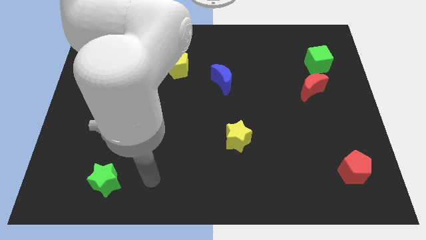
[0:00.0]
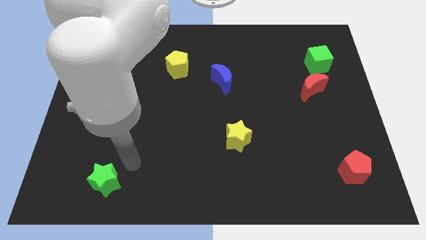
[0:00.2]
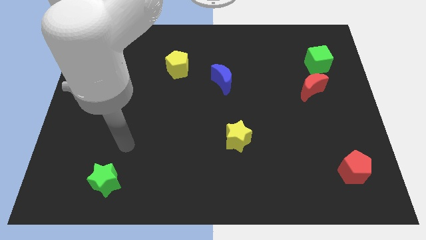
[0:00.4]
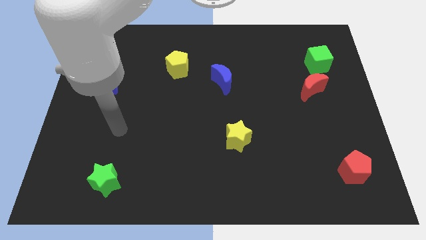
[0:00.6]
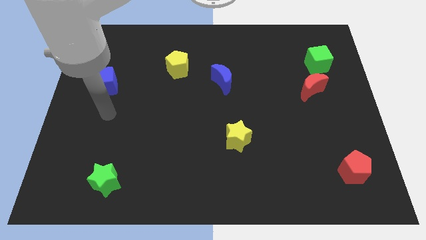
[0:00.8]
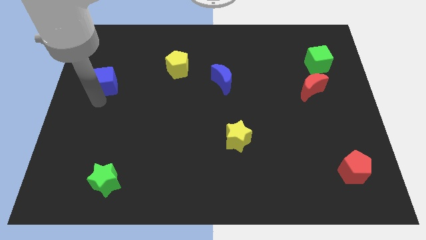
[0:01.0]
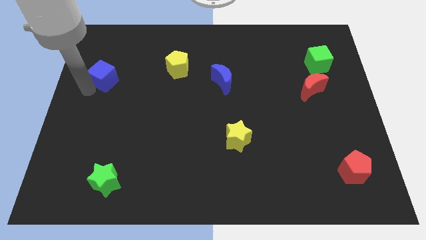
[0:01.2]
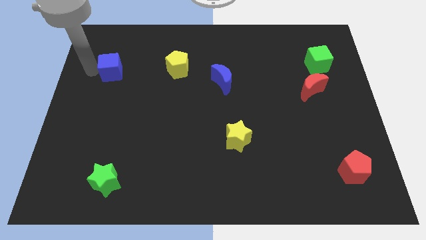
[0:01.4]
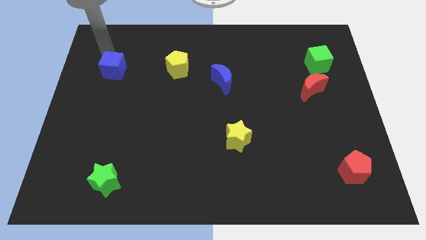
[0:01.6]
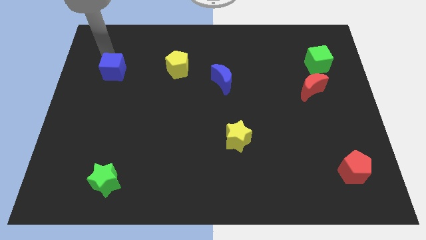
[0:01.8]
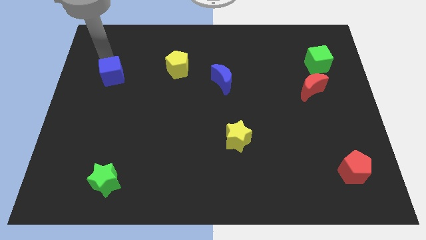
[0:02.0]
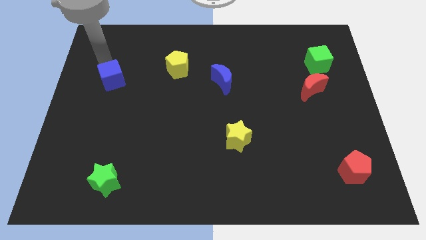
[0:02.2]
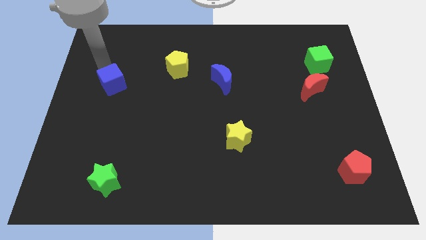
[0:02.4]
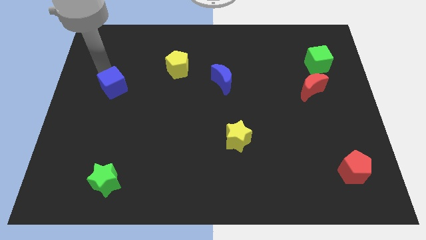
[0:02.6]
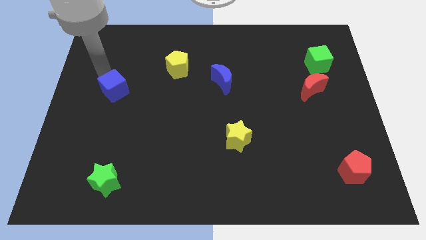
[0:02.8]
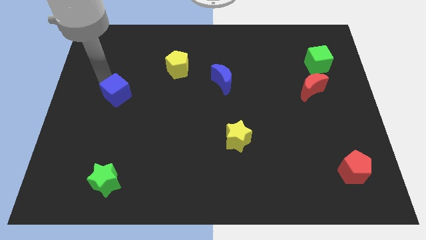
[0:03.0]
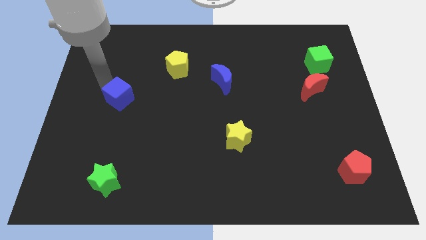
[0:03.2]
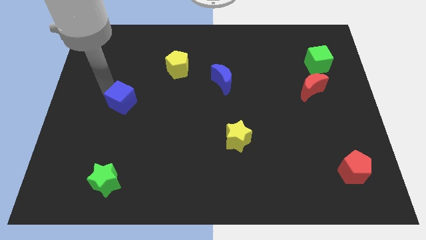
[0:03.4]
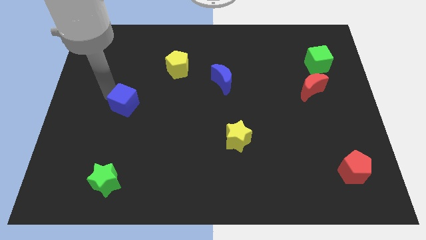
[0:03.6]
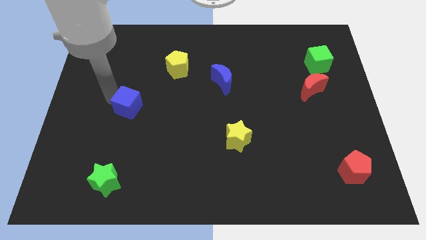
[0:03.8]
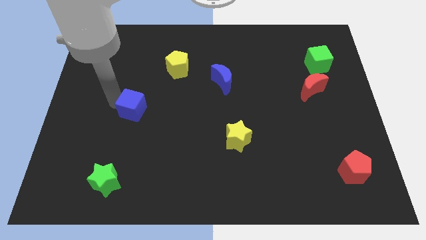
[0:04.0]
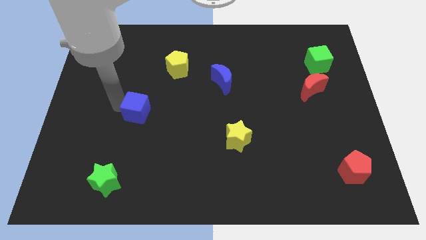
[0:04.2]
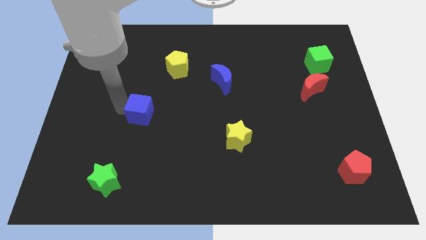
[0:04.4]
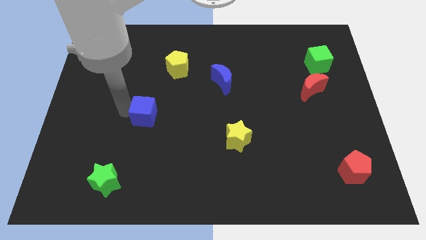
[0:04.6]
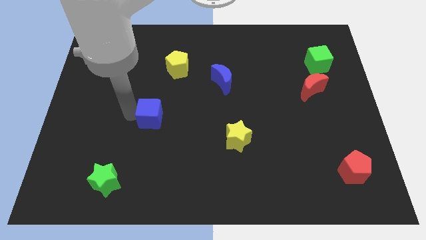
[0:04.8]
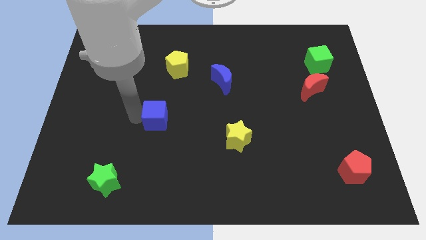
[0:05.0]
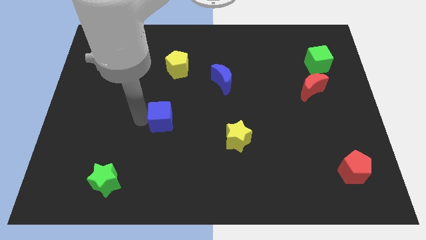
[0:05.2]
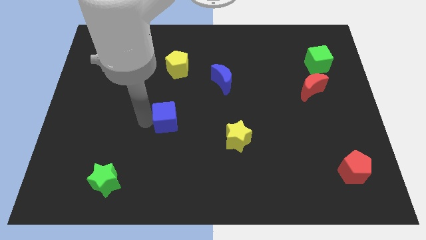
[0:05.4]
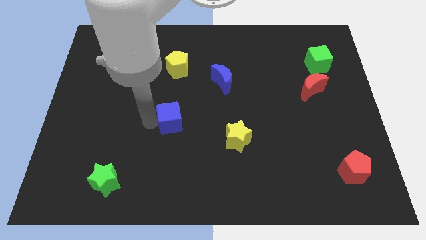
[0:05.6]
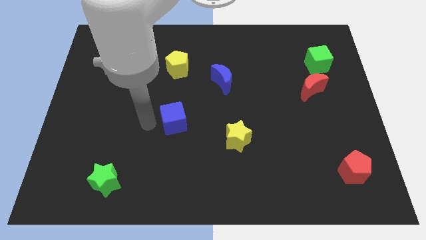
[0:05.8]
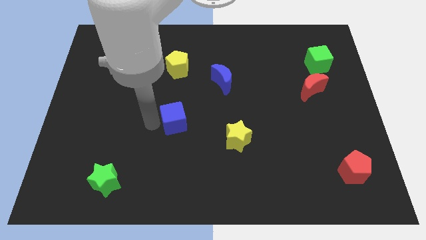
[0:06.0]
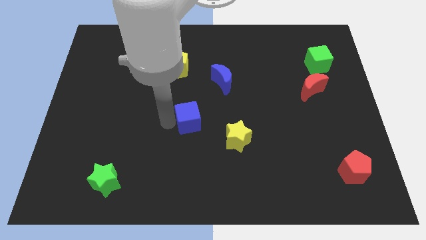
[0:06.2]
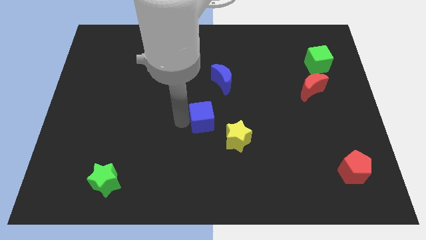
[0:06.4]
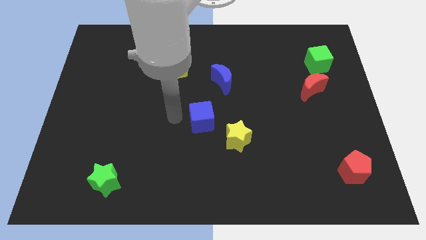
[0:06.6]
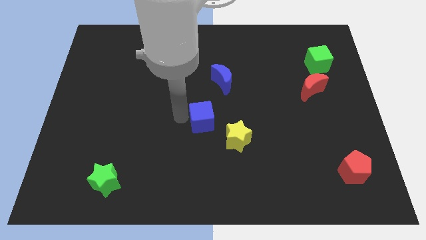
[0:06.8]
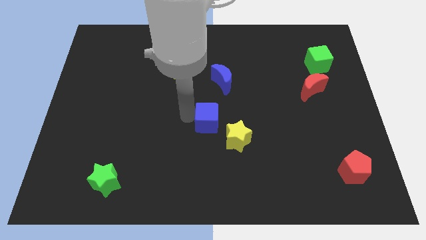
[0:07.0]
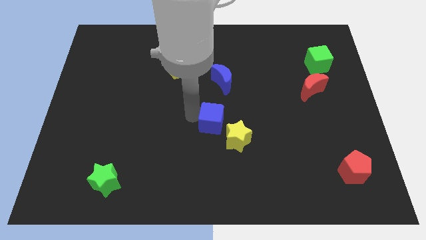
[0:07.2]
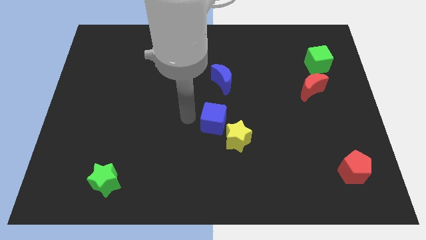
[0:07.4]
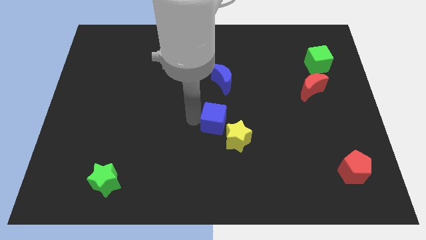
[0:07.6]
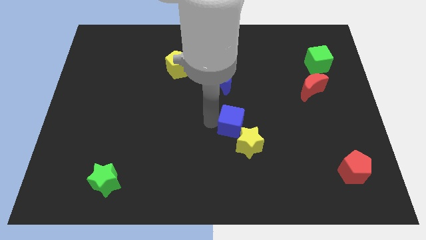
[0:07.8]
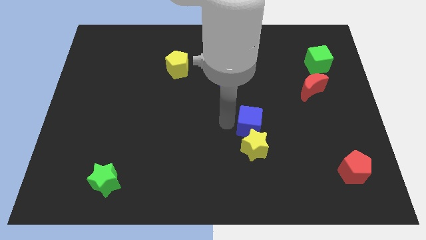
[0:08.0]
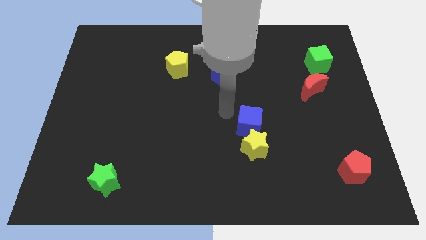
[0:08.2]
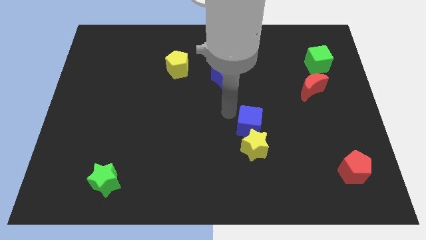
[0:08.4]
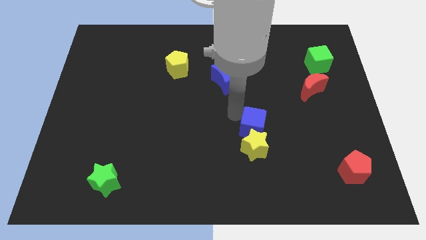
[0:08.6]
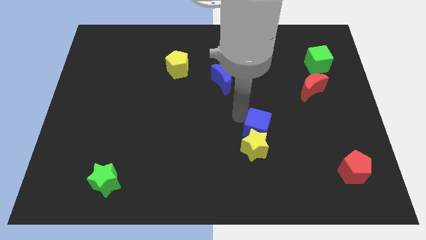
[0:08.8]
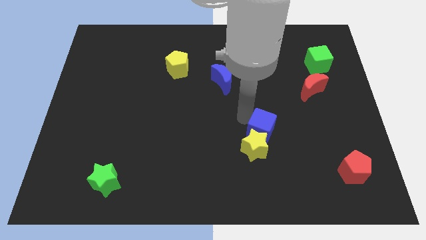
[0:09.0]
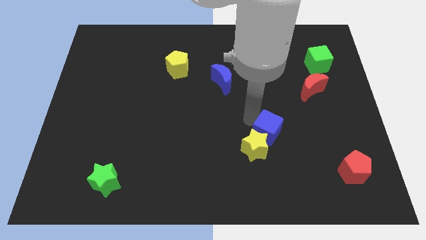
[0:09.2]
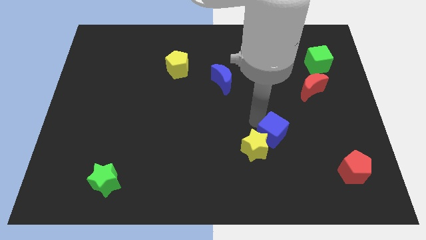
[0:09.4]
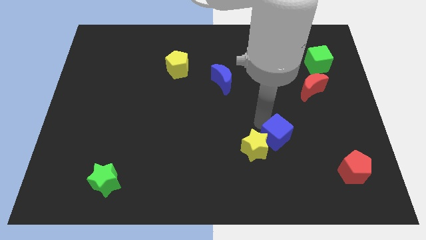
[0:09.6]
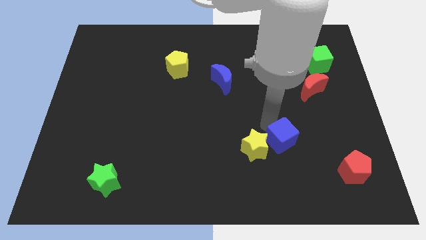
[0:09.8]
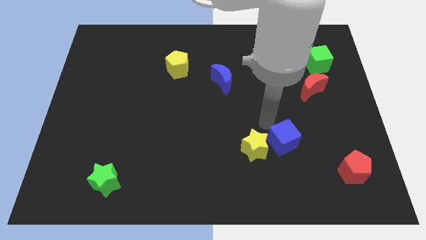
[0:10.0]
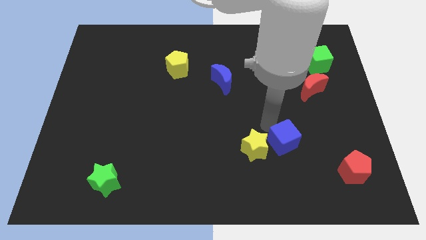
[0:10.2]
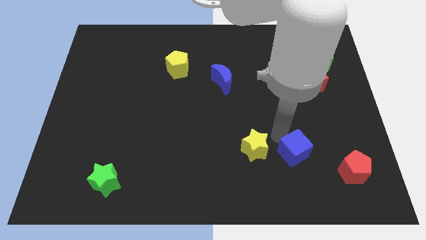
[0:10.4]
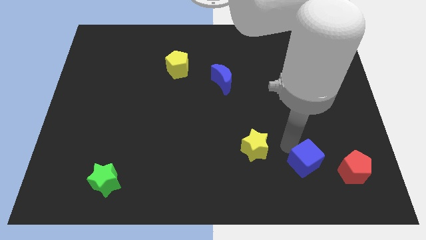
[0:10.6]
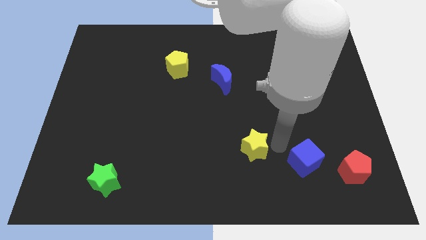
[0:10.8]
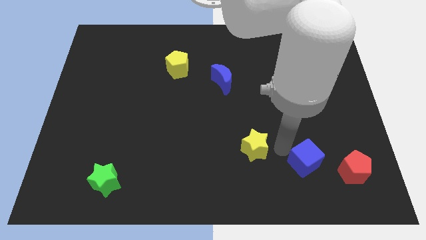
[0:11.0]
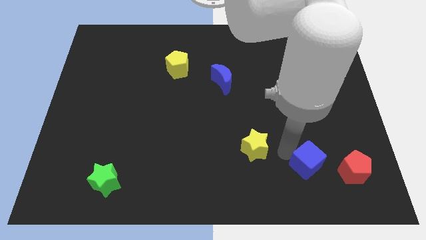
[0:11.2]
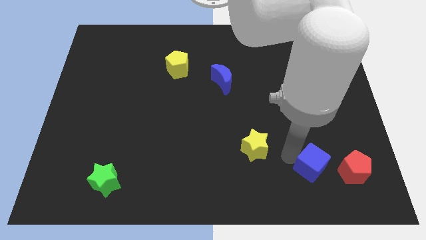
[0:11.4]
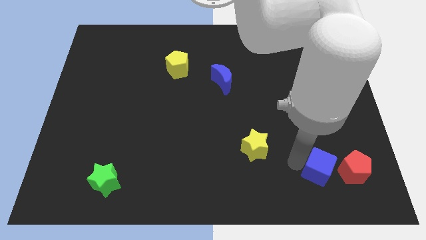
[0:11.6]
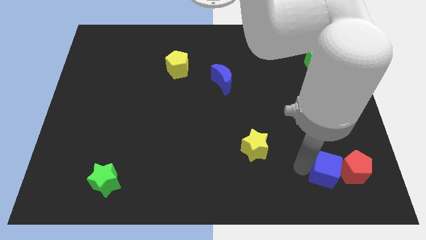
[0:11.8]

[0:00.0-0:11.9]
put the blue cube close to the red pentagon
